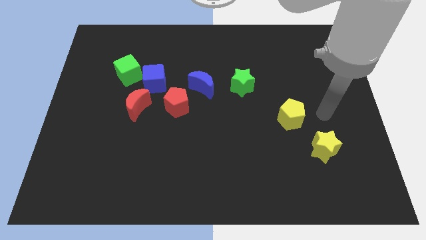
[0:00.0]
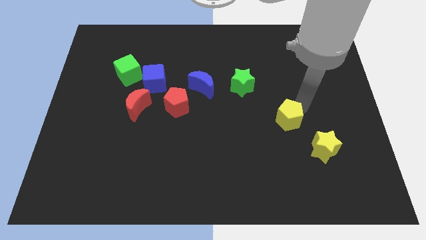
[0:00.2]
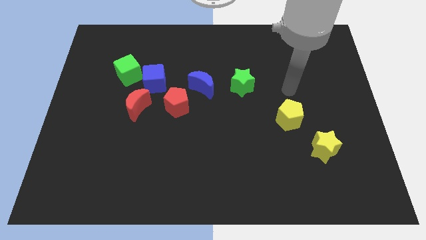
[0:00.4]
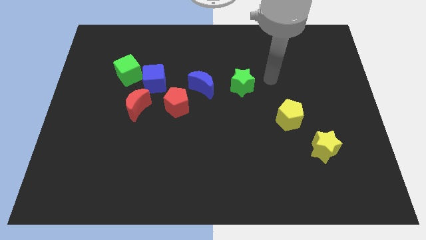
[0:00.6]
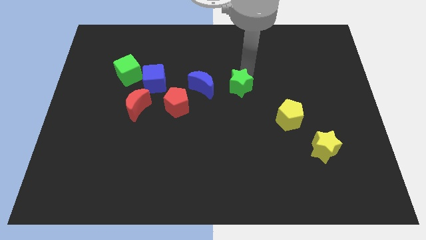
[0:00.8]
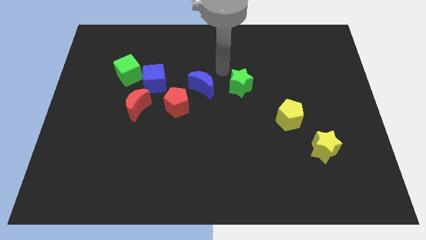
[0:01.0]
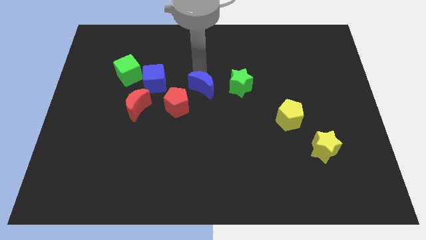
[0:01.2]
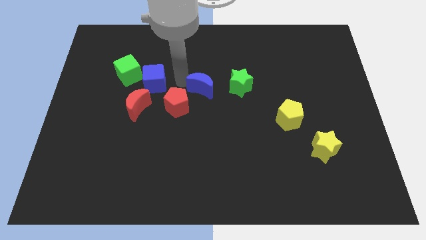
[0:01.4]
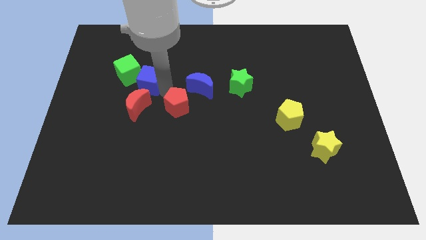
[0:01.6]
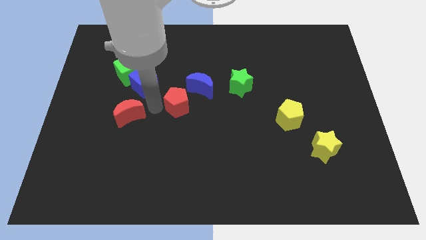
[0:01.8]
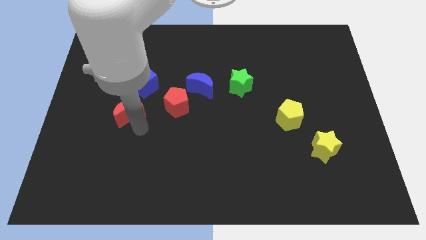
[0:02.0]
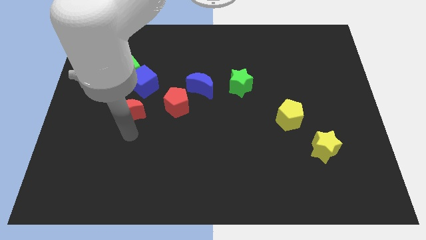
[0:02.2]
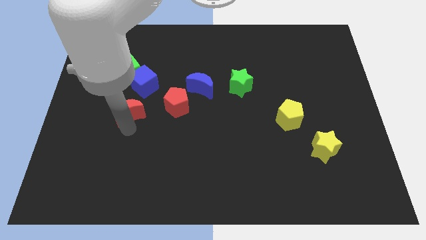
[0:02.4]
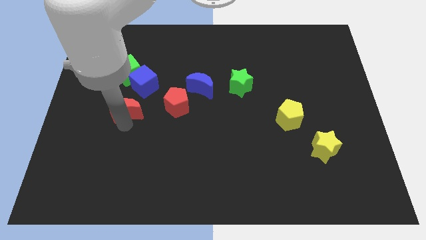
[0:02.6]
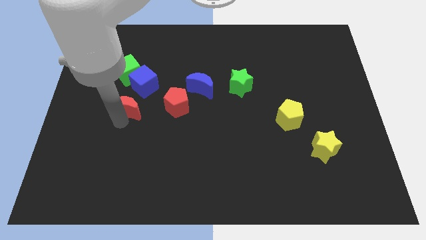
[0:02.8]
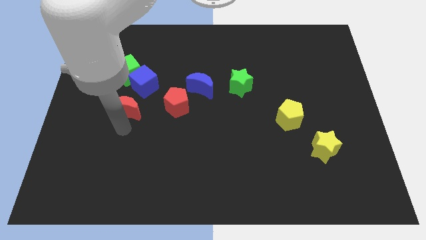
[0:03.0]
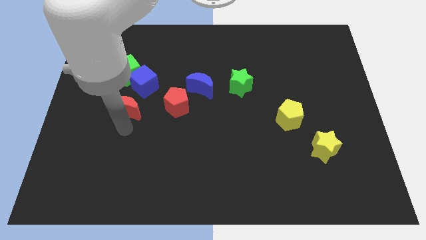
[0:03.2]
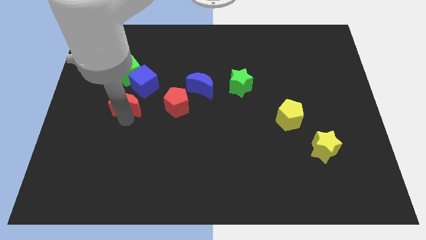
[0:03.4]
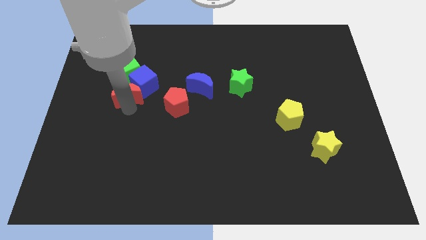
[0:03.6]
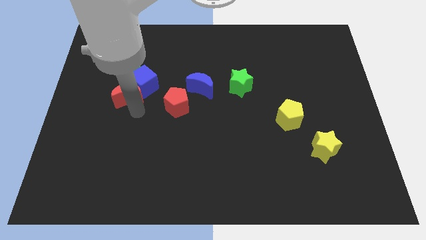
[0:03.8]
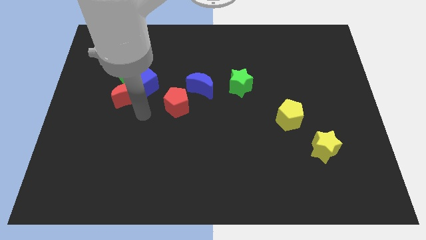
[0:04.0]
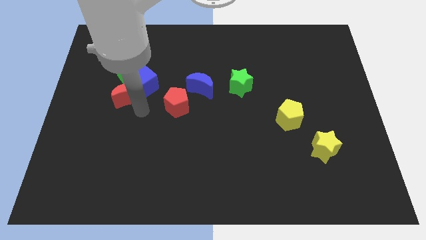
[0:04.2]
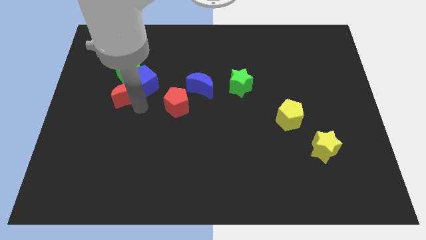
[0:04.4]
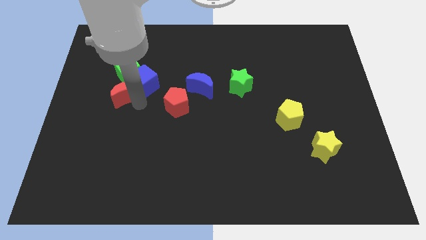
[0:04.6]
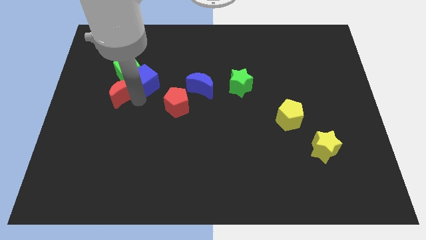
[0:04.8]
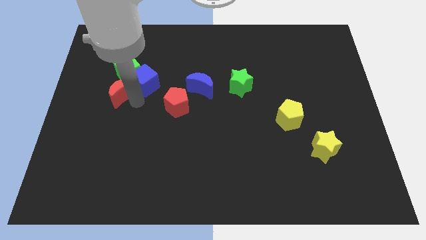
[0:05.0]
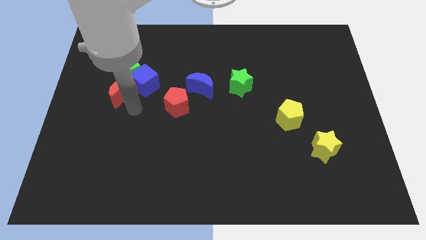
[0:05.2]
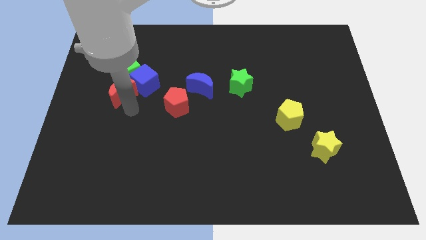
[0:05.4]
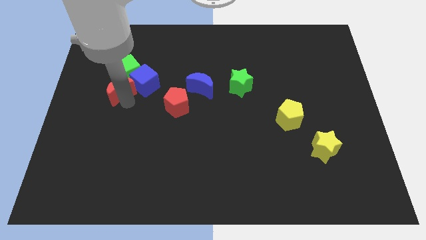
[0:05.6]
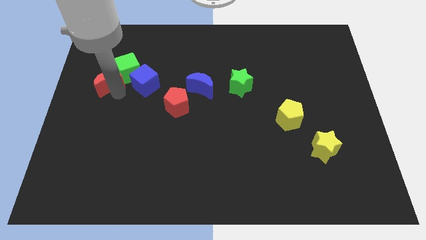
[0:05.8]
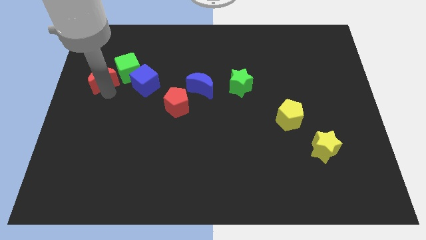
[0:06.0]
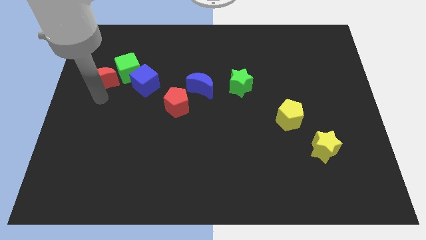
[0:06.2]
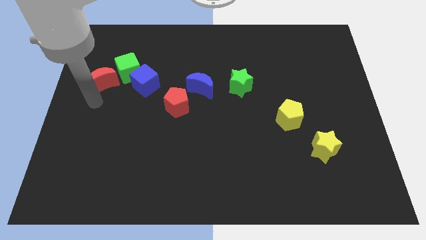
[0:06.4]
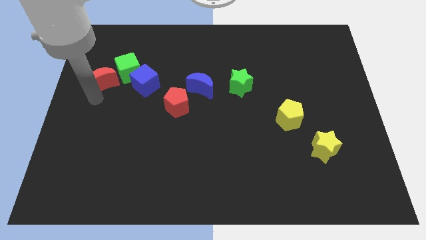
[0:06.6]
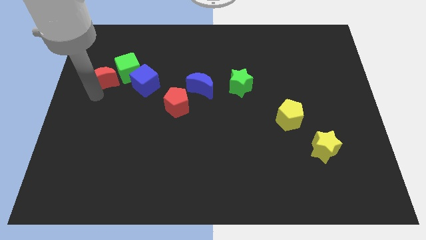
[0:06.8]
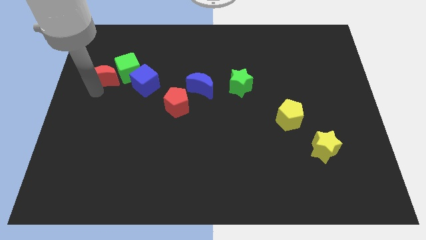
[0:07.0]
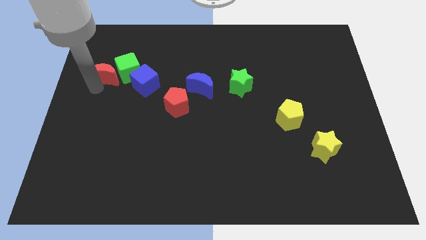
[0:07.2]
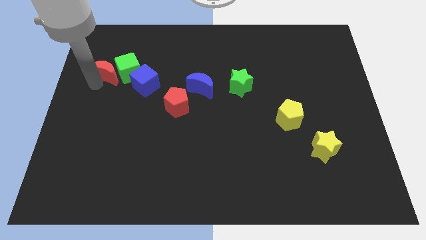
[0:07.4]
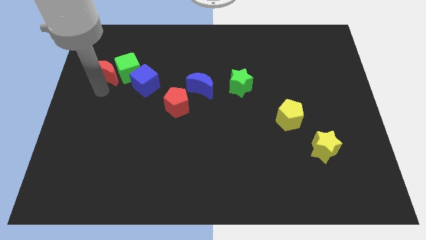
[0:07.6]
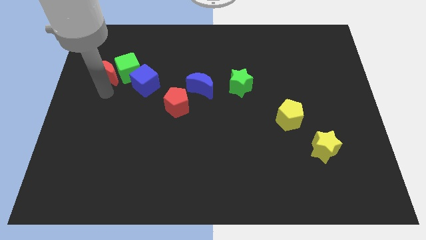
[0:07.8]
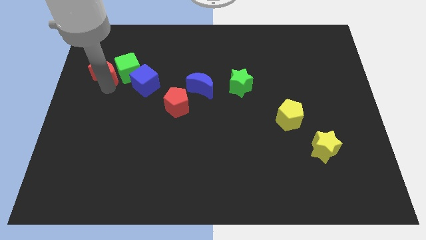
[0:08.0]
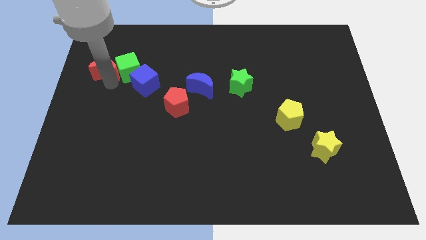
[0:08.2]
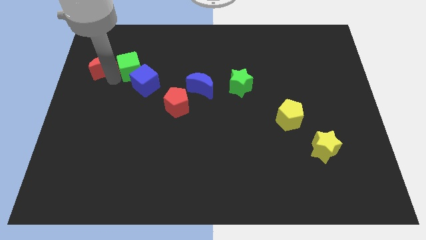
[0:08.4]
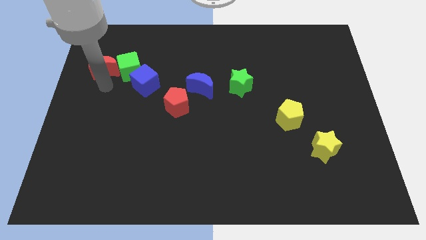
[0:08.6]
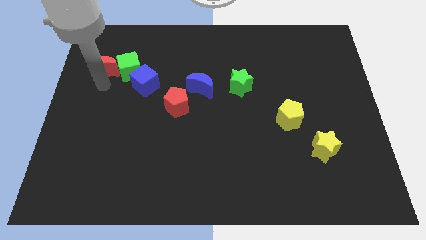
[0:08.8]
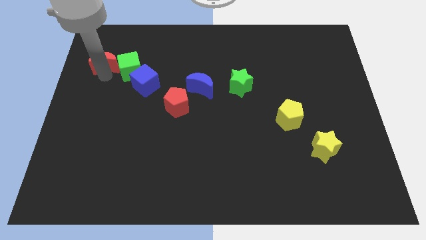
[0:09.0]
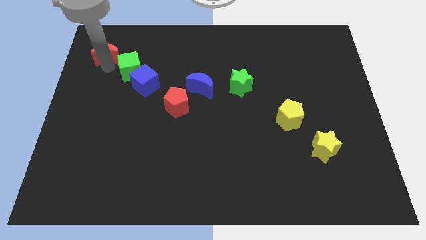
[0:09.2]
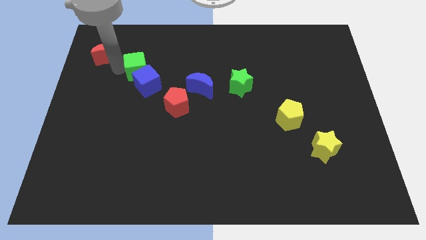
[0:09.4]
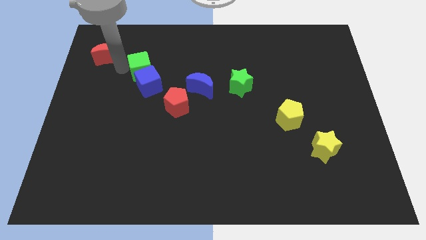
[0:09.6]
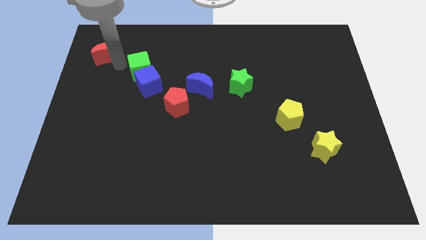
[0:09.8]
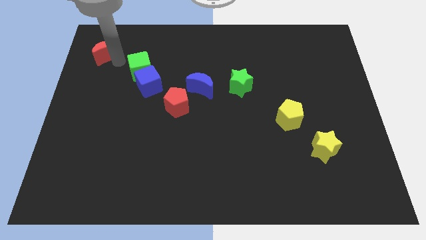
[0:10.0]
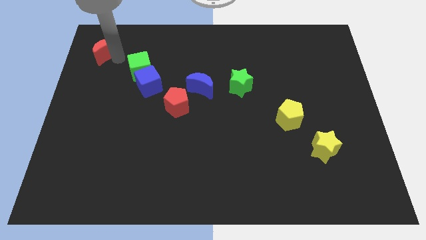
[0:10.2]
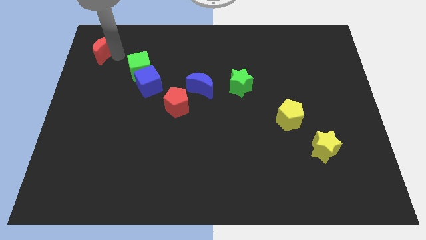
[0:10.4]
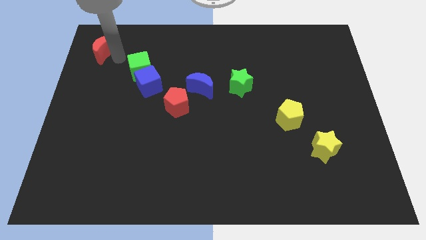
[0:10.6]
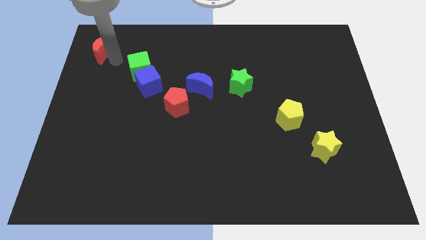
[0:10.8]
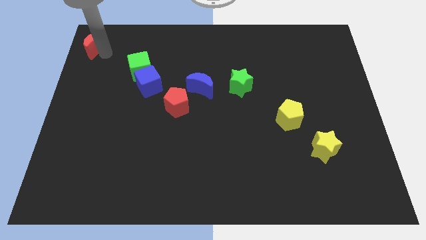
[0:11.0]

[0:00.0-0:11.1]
put the red moon to the top left

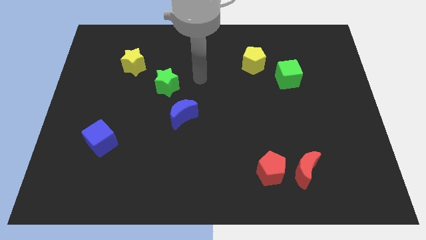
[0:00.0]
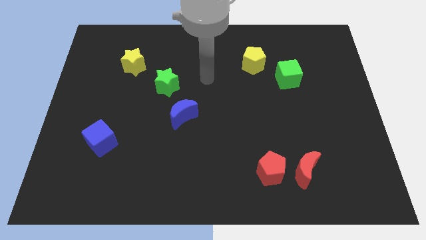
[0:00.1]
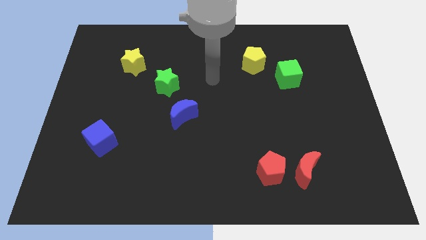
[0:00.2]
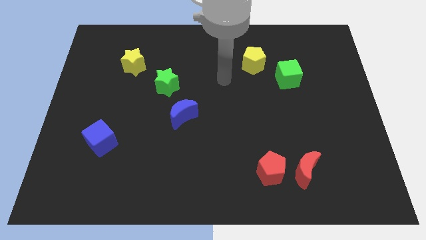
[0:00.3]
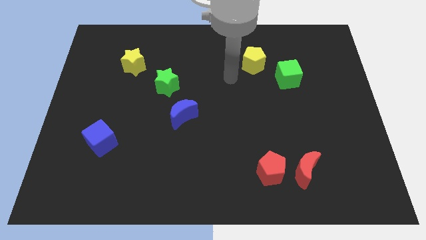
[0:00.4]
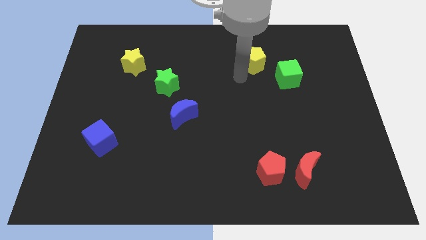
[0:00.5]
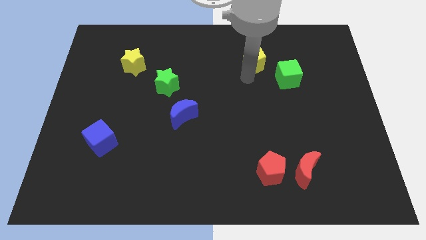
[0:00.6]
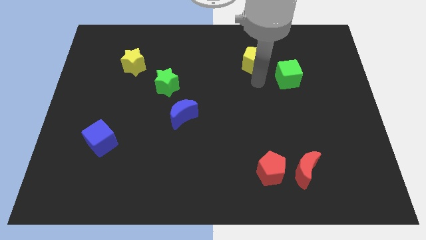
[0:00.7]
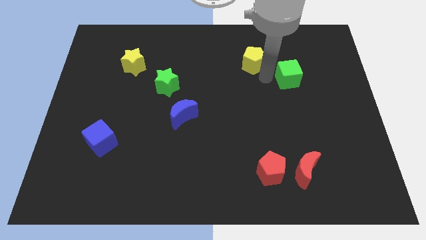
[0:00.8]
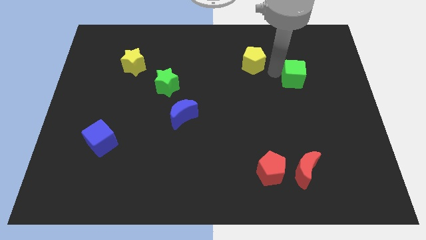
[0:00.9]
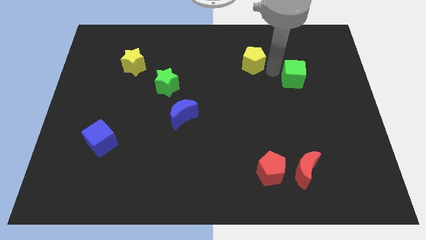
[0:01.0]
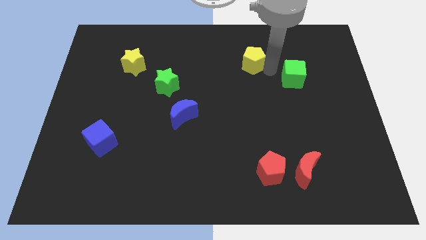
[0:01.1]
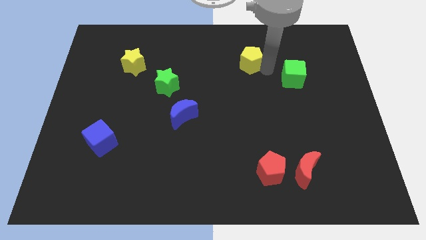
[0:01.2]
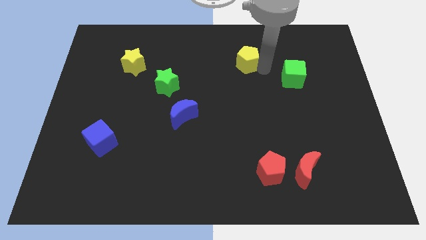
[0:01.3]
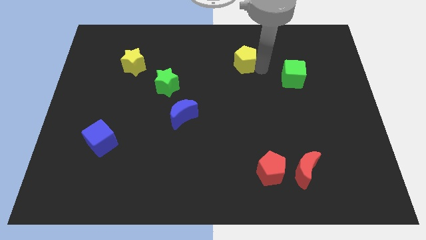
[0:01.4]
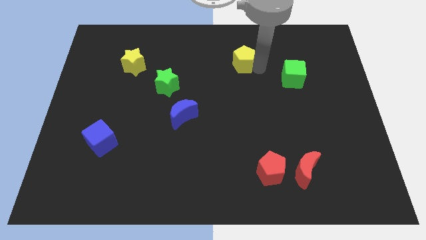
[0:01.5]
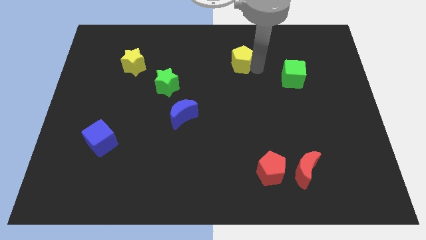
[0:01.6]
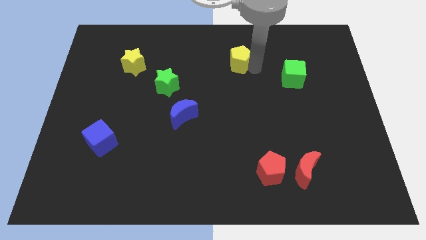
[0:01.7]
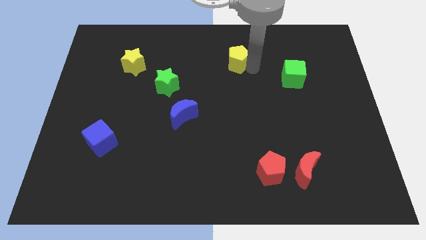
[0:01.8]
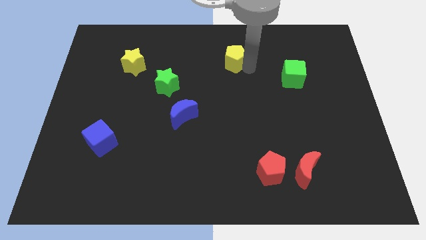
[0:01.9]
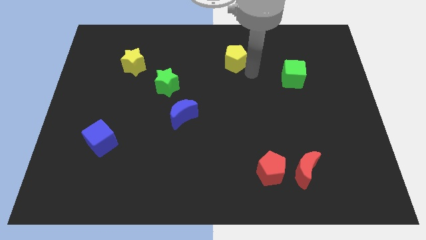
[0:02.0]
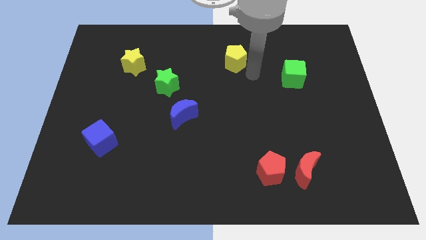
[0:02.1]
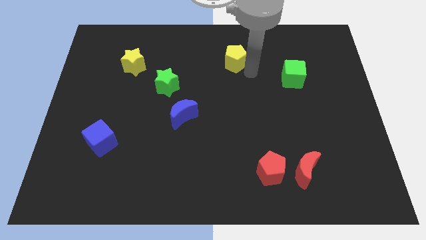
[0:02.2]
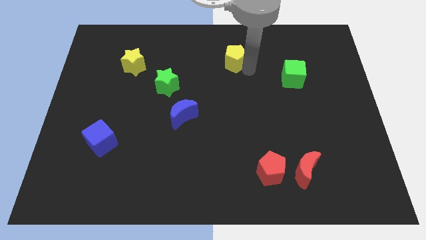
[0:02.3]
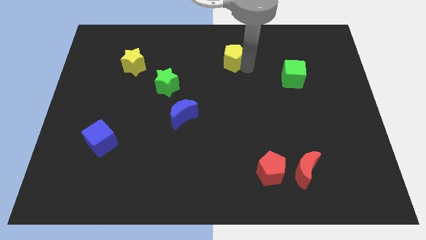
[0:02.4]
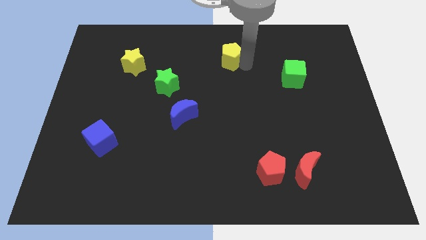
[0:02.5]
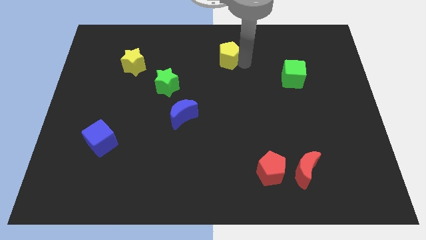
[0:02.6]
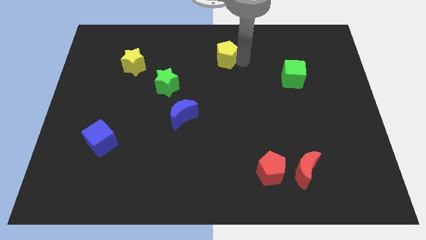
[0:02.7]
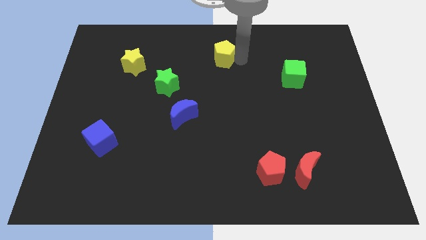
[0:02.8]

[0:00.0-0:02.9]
push the yellow pentagon to the top
